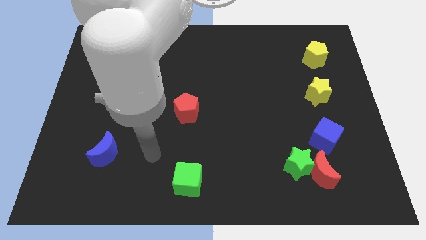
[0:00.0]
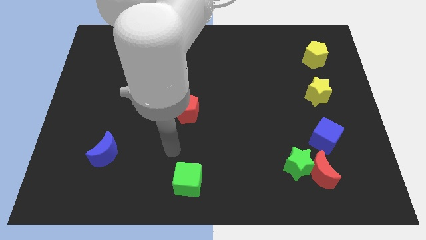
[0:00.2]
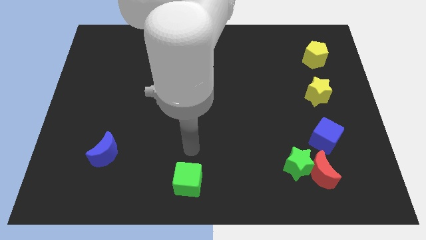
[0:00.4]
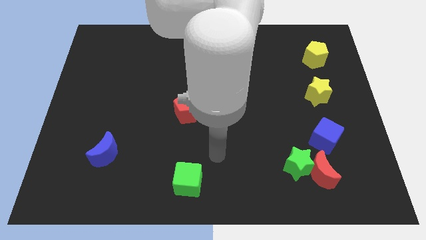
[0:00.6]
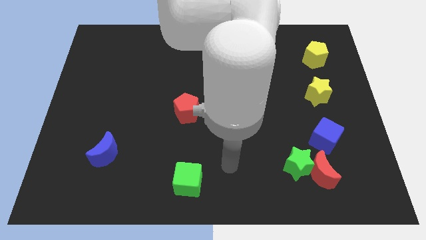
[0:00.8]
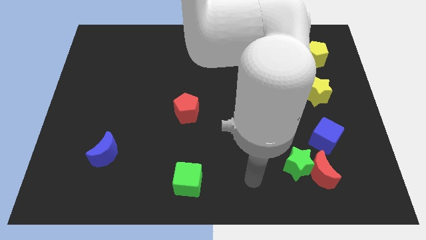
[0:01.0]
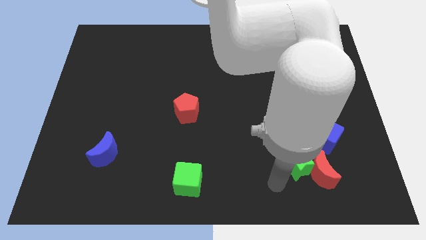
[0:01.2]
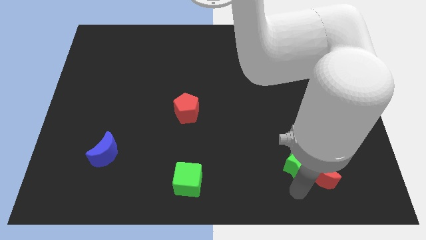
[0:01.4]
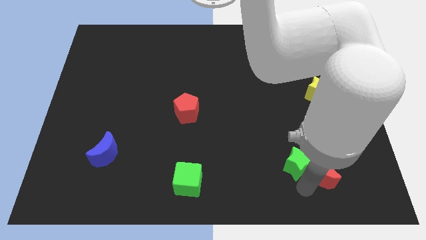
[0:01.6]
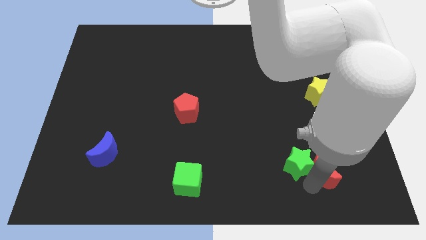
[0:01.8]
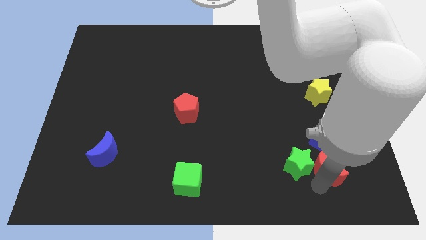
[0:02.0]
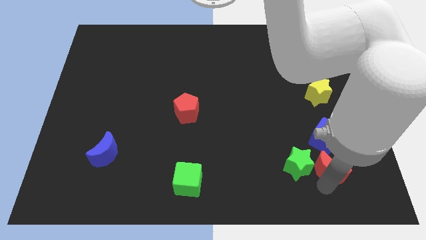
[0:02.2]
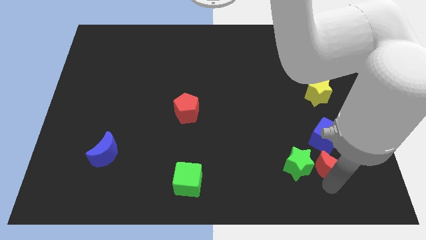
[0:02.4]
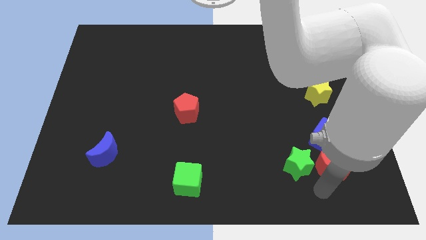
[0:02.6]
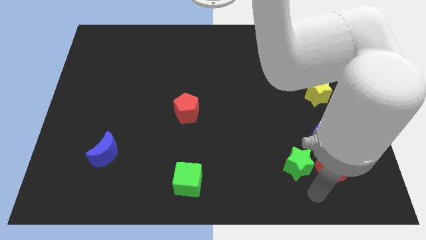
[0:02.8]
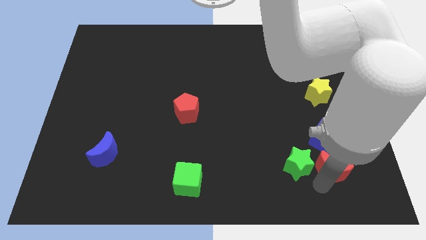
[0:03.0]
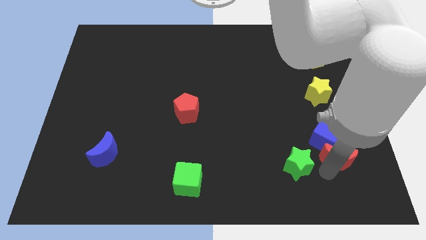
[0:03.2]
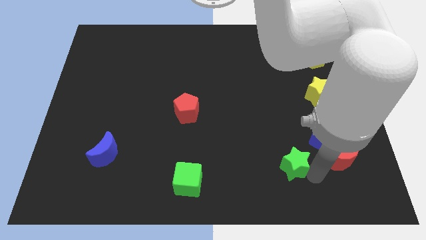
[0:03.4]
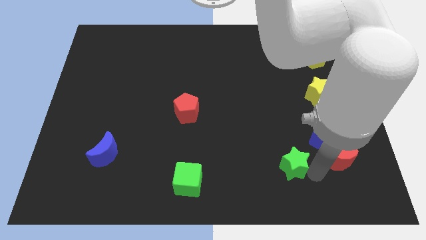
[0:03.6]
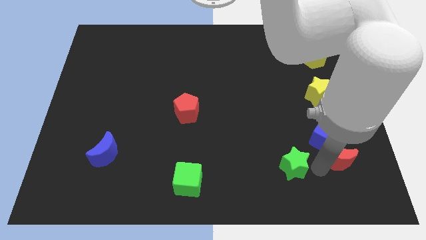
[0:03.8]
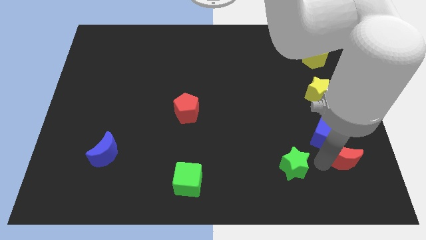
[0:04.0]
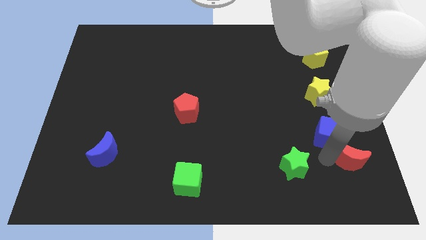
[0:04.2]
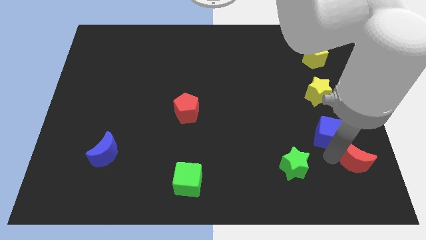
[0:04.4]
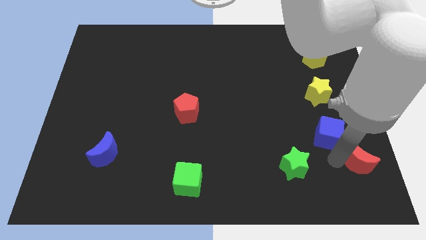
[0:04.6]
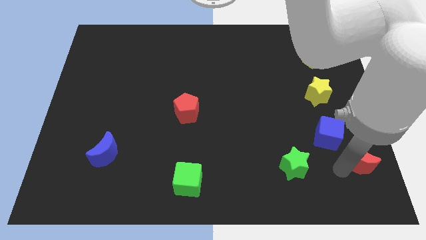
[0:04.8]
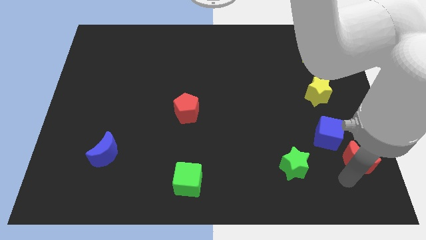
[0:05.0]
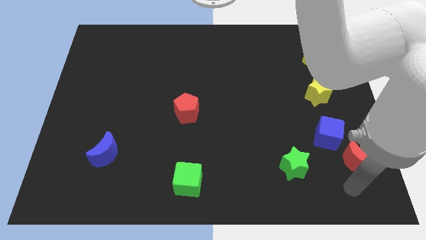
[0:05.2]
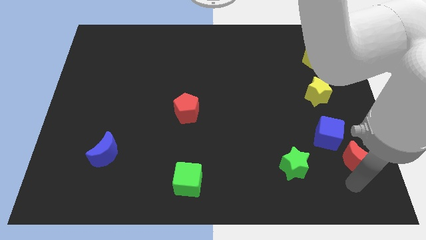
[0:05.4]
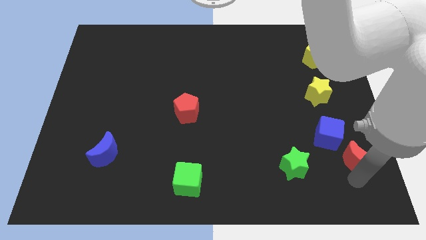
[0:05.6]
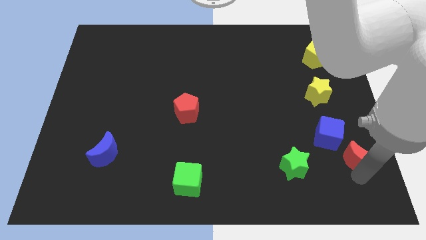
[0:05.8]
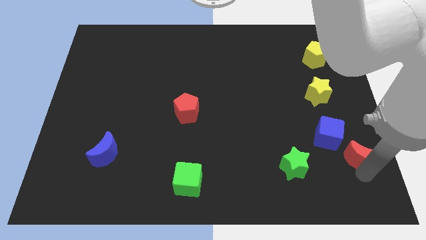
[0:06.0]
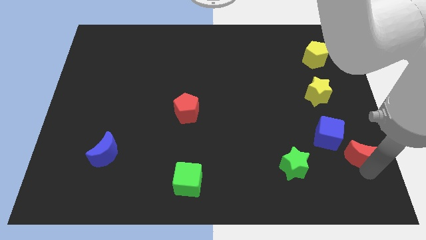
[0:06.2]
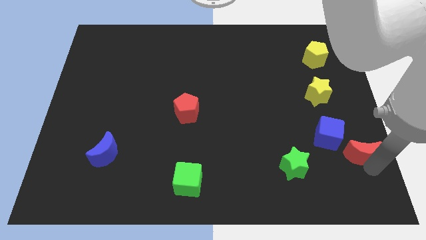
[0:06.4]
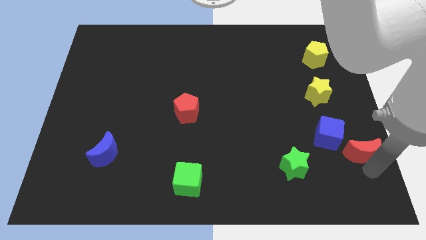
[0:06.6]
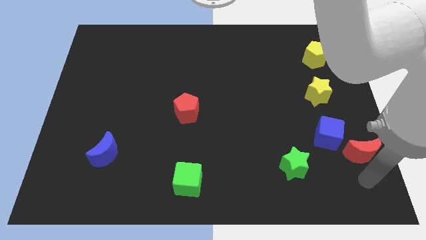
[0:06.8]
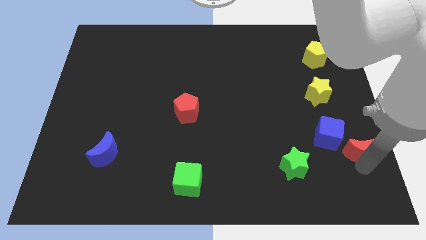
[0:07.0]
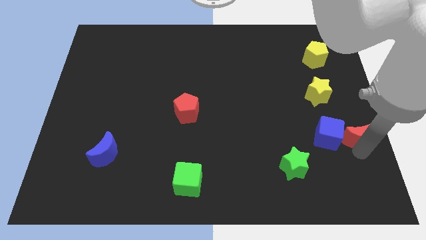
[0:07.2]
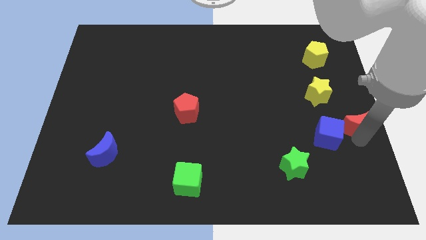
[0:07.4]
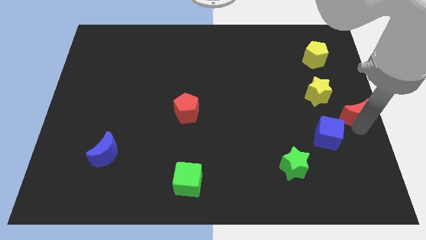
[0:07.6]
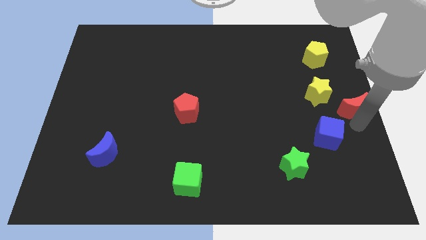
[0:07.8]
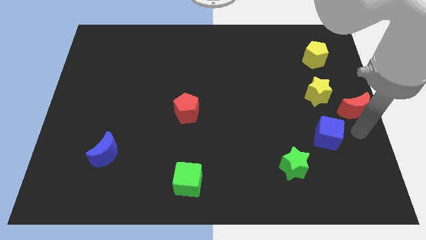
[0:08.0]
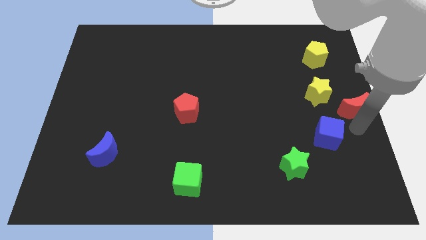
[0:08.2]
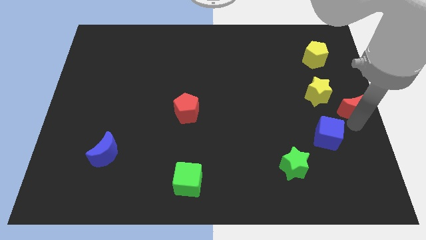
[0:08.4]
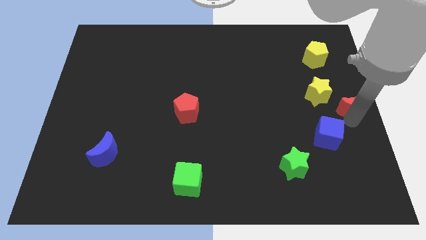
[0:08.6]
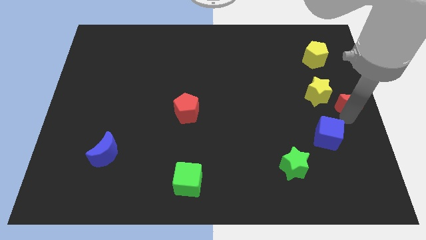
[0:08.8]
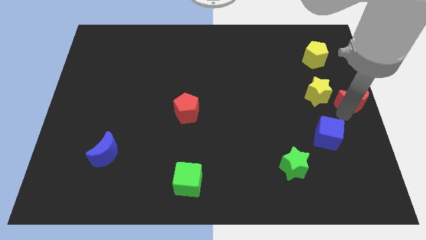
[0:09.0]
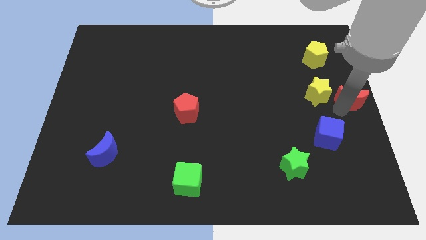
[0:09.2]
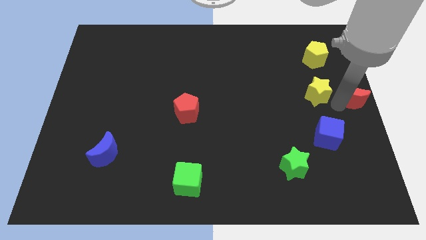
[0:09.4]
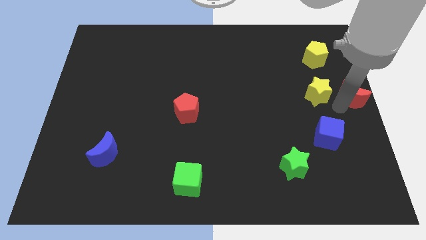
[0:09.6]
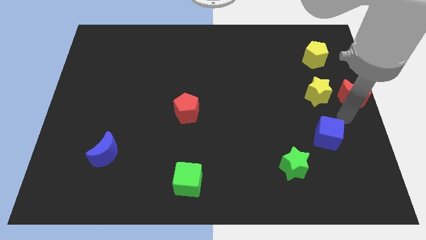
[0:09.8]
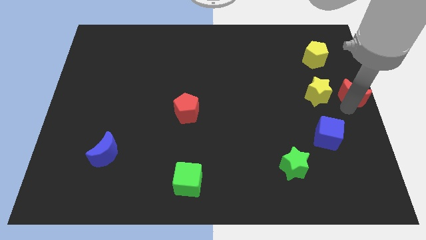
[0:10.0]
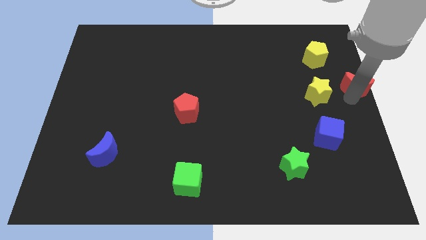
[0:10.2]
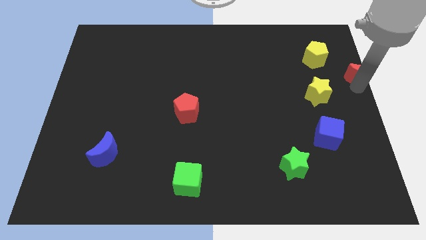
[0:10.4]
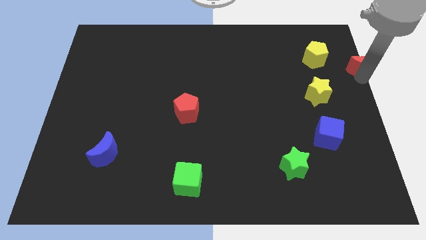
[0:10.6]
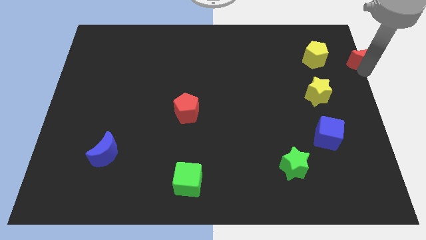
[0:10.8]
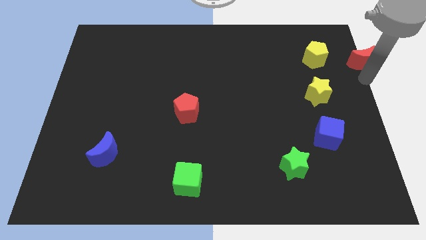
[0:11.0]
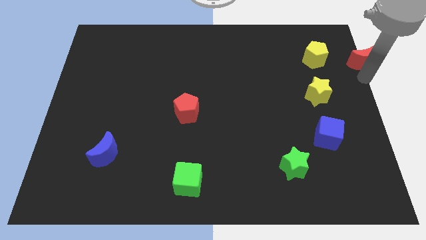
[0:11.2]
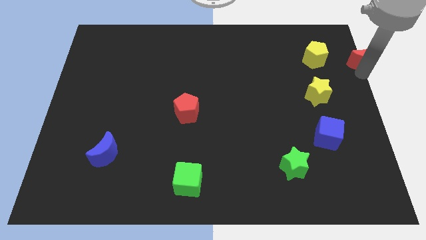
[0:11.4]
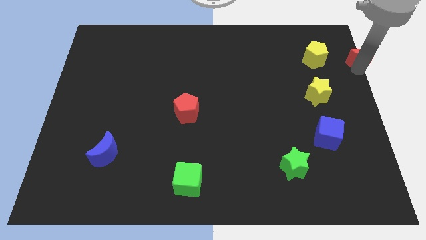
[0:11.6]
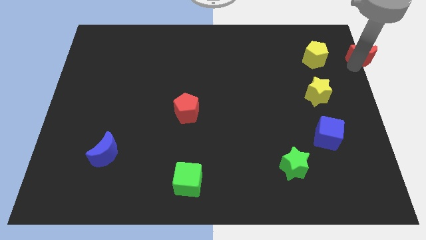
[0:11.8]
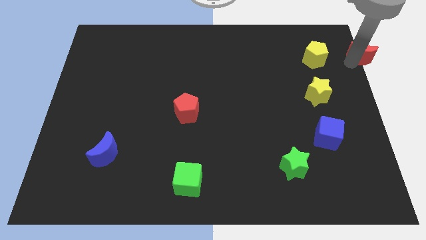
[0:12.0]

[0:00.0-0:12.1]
slide the red moon to the top right

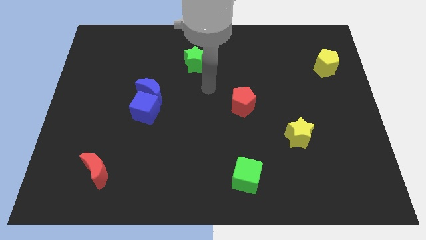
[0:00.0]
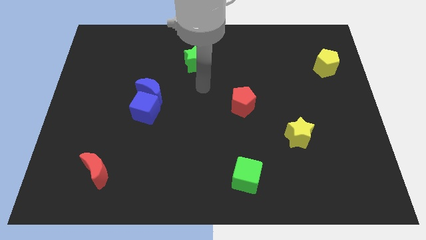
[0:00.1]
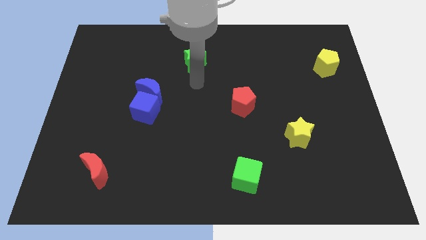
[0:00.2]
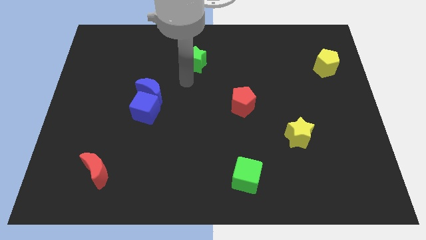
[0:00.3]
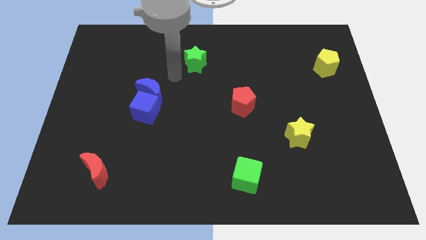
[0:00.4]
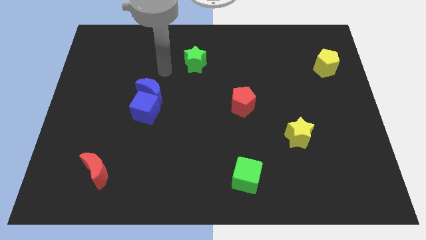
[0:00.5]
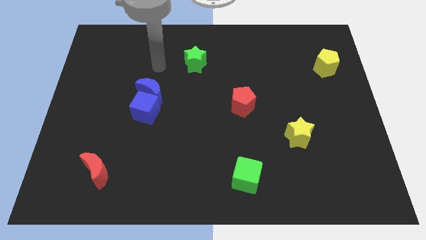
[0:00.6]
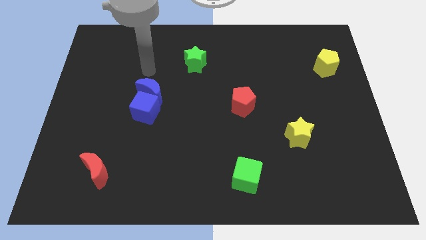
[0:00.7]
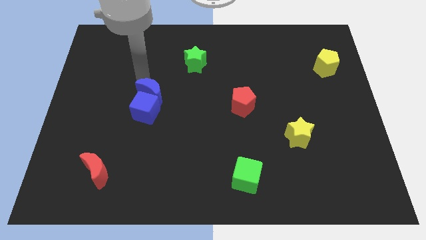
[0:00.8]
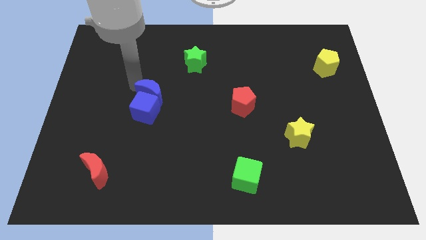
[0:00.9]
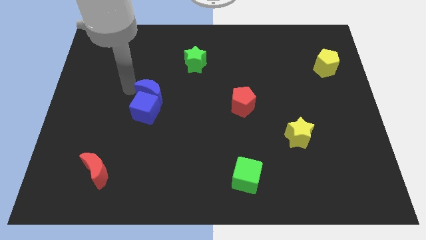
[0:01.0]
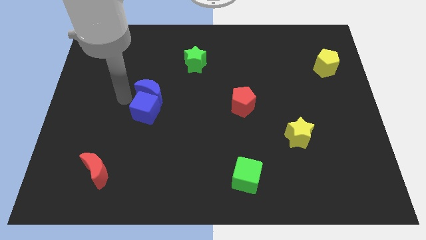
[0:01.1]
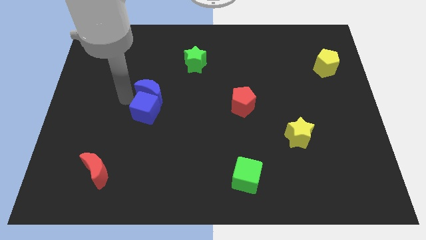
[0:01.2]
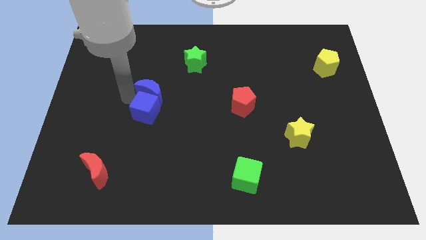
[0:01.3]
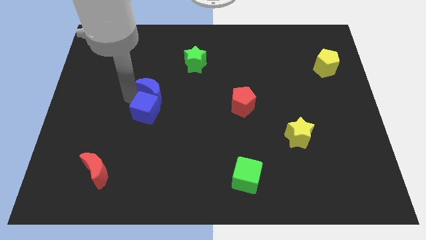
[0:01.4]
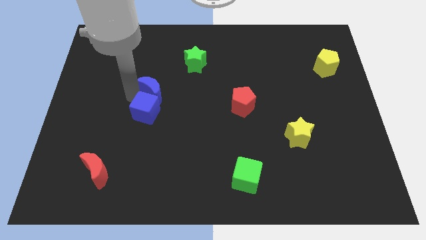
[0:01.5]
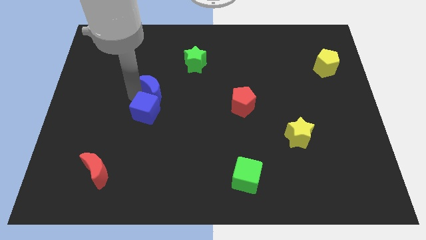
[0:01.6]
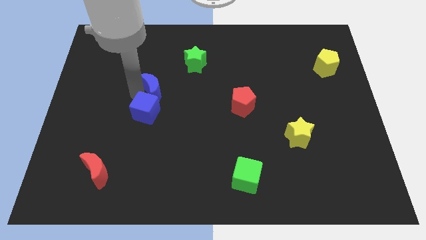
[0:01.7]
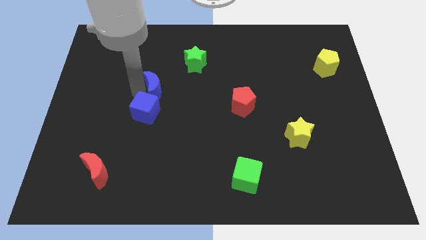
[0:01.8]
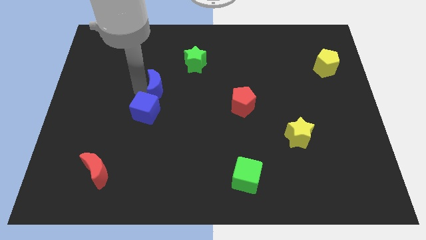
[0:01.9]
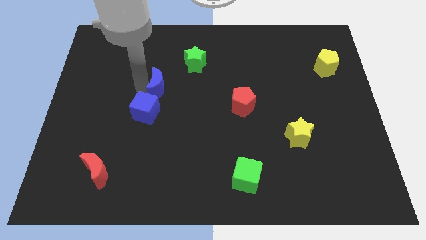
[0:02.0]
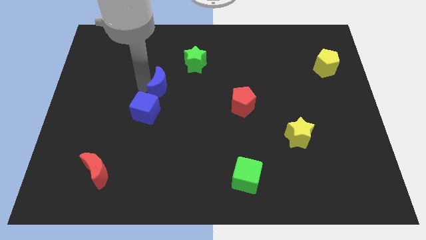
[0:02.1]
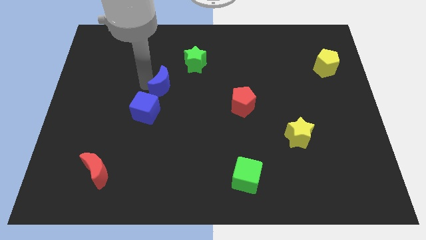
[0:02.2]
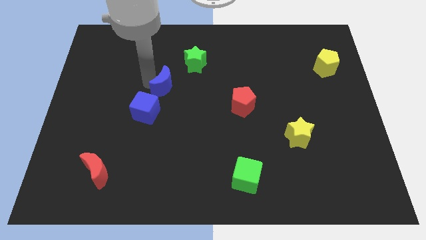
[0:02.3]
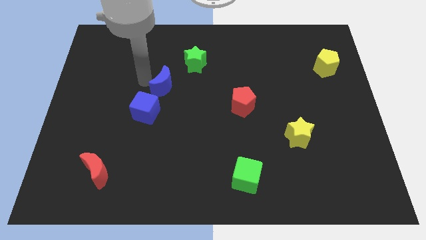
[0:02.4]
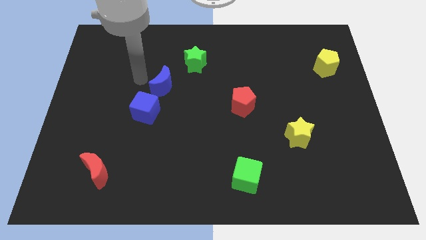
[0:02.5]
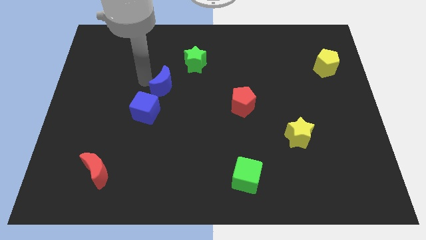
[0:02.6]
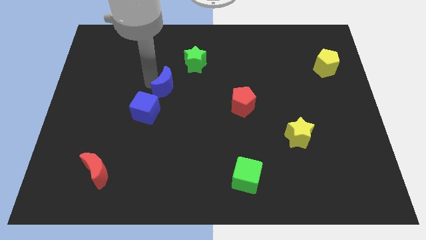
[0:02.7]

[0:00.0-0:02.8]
push the blue moon to the middle of the board
